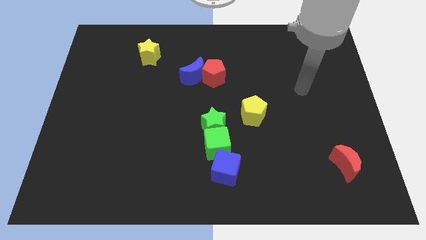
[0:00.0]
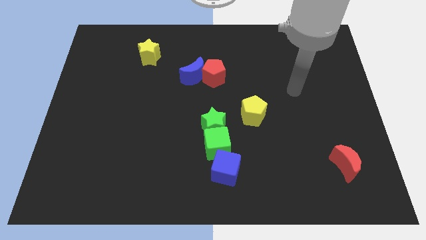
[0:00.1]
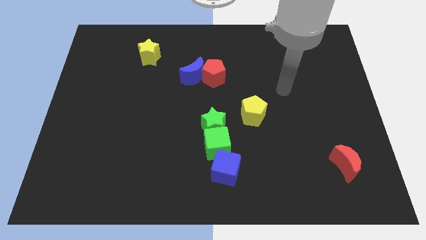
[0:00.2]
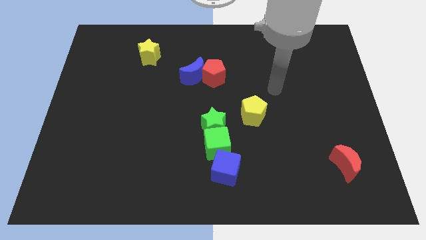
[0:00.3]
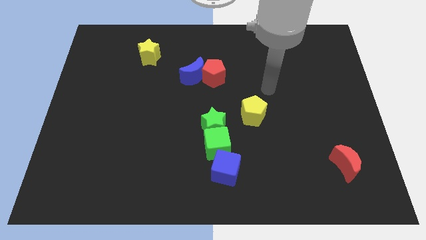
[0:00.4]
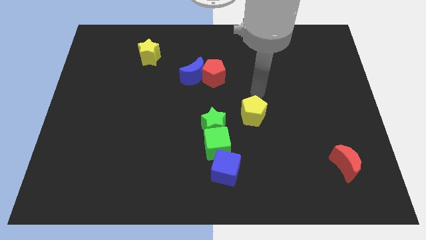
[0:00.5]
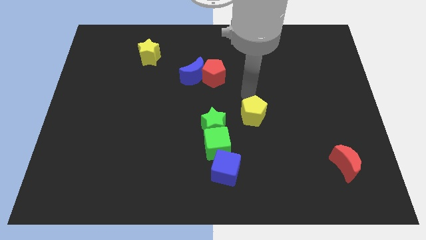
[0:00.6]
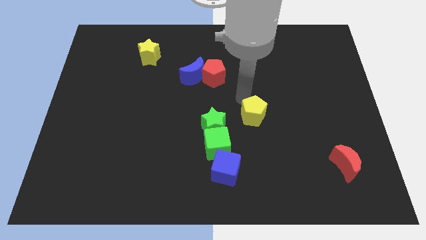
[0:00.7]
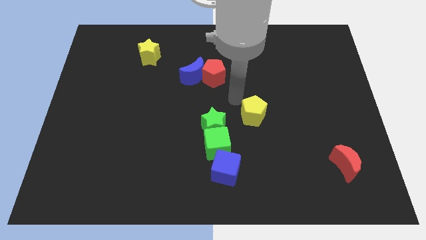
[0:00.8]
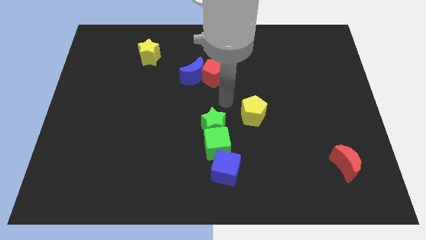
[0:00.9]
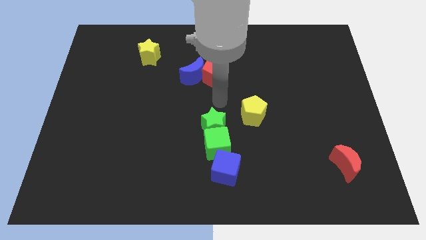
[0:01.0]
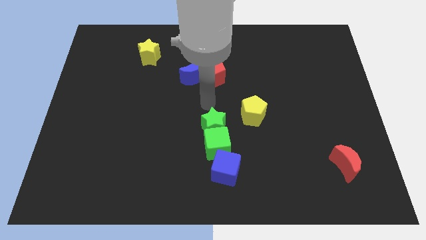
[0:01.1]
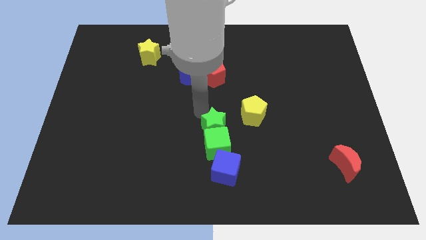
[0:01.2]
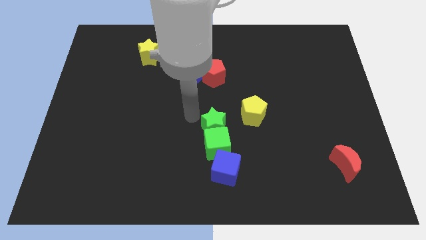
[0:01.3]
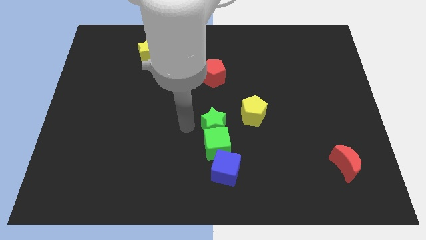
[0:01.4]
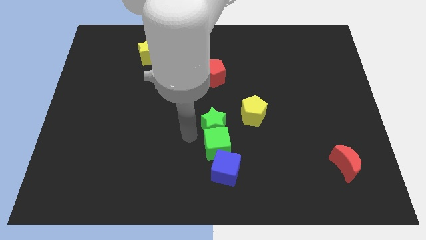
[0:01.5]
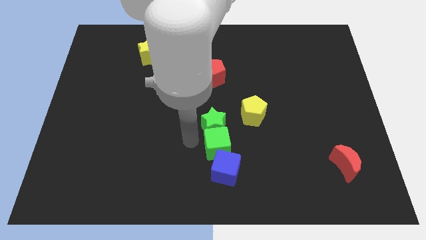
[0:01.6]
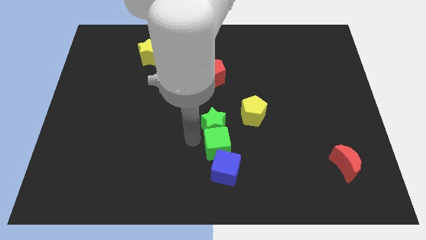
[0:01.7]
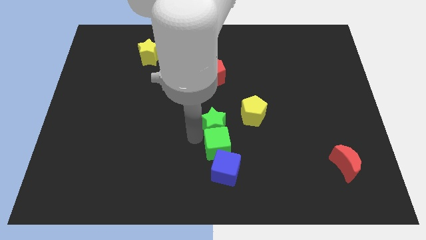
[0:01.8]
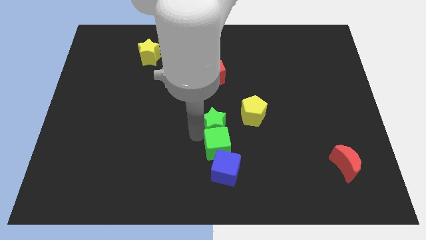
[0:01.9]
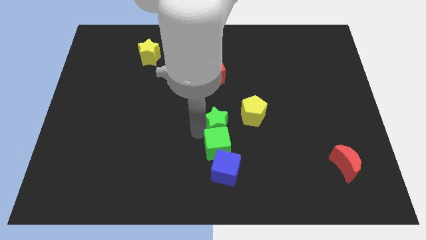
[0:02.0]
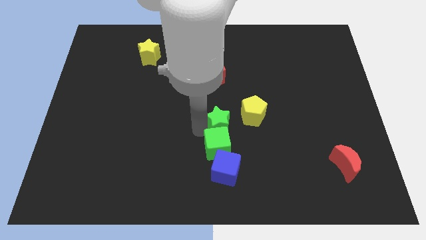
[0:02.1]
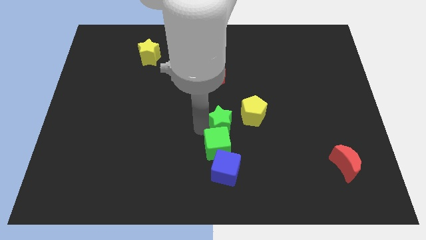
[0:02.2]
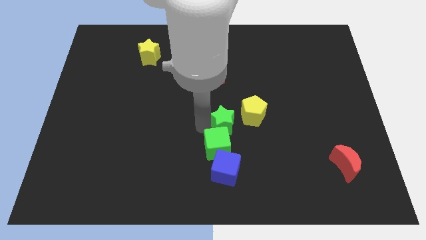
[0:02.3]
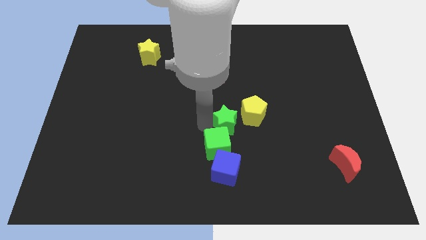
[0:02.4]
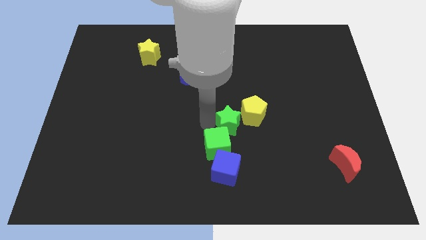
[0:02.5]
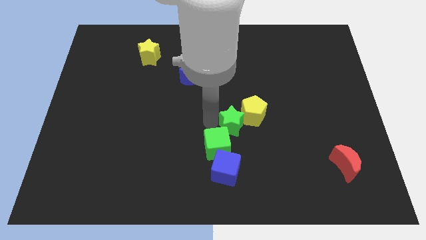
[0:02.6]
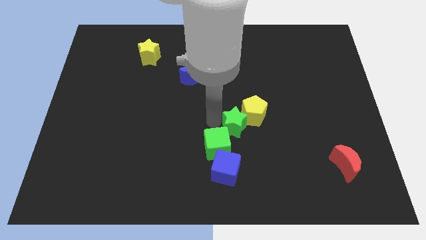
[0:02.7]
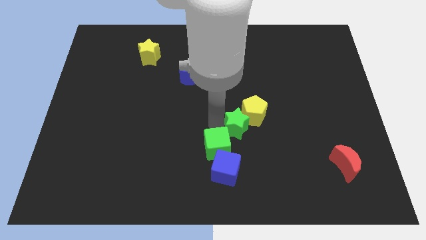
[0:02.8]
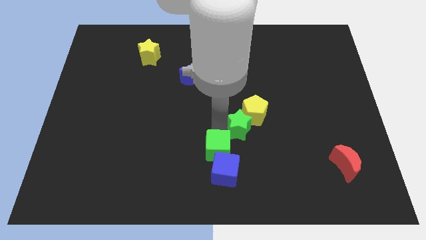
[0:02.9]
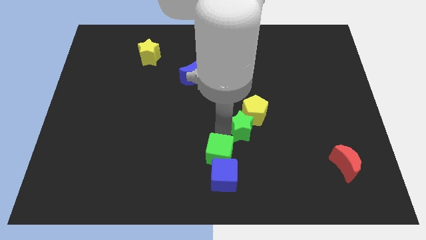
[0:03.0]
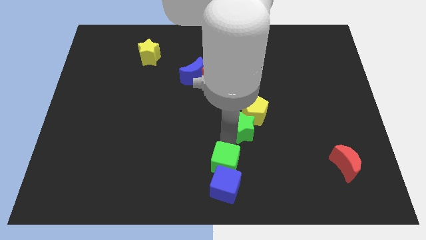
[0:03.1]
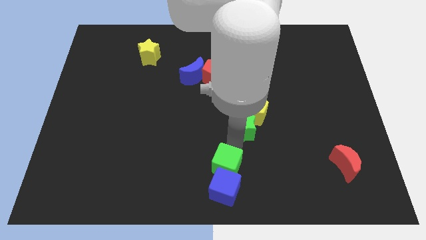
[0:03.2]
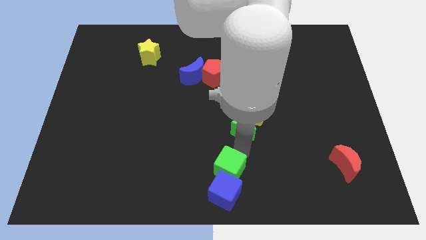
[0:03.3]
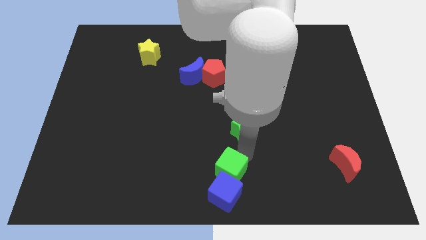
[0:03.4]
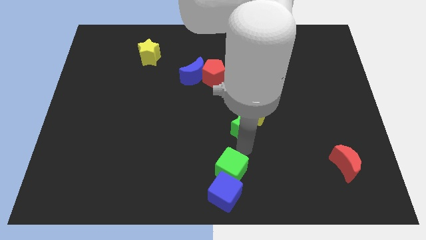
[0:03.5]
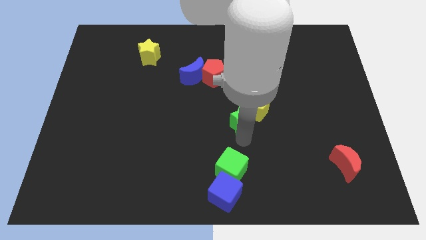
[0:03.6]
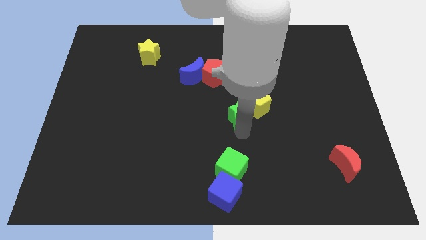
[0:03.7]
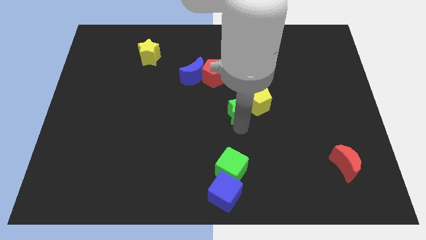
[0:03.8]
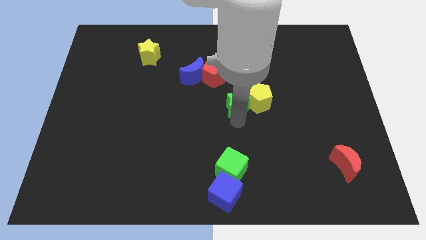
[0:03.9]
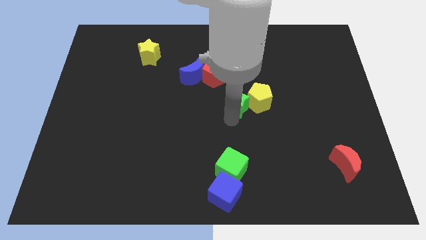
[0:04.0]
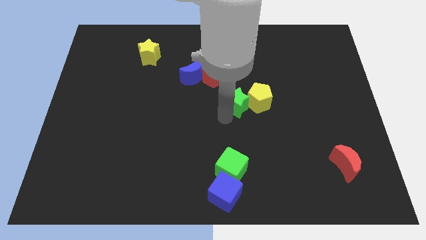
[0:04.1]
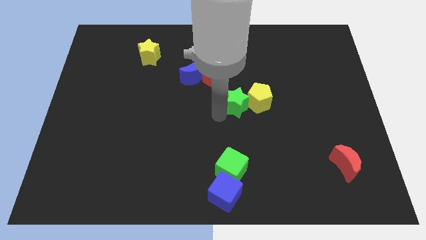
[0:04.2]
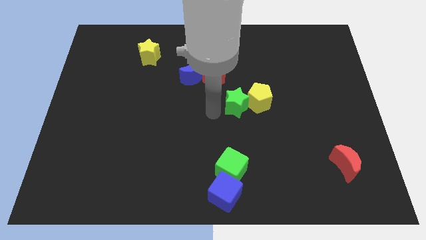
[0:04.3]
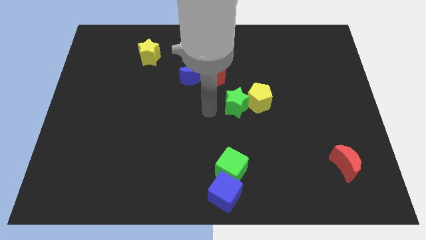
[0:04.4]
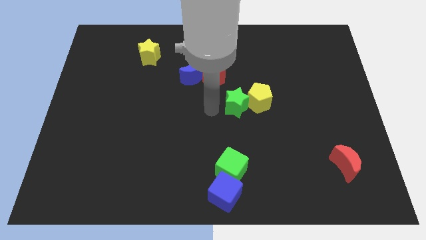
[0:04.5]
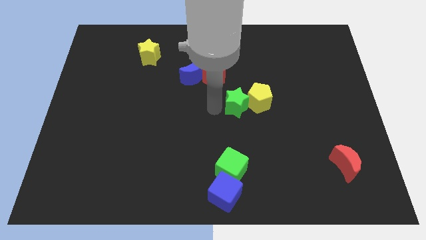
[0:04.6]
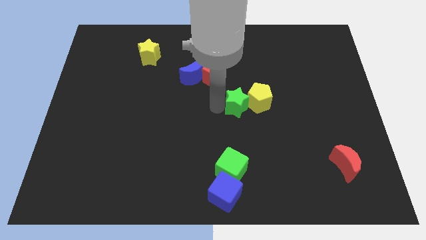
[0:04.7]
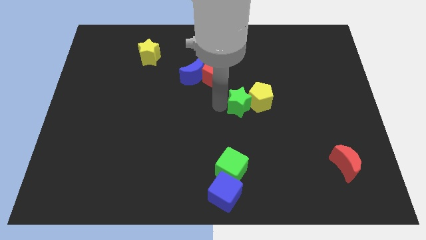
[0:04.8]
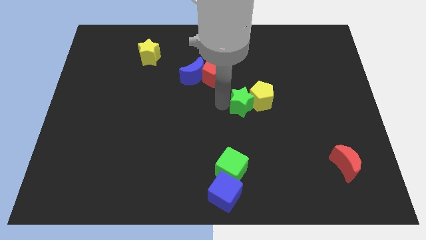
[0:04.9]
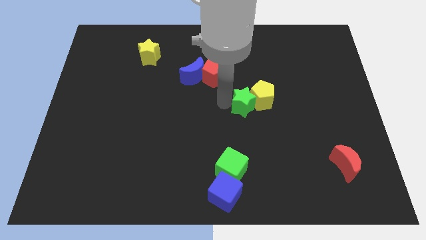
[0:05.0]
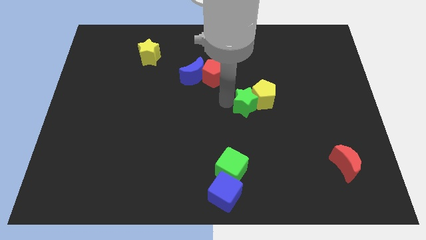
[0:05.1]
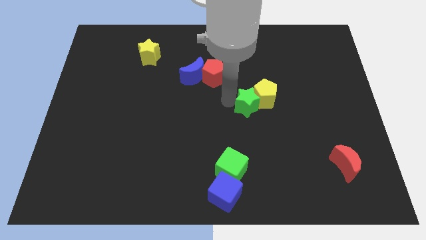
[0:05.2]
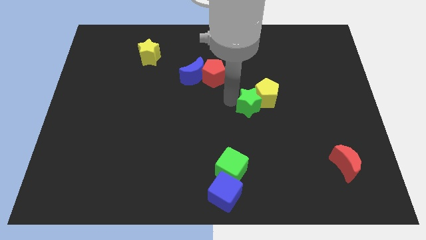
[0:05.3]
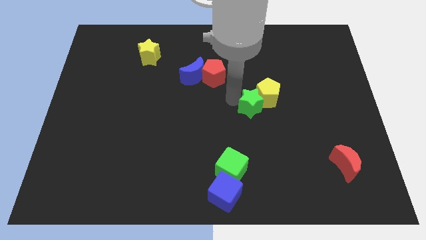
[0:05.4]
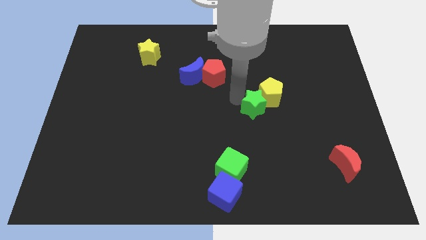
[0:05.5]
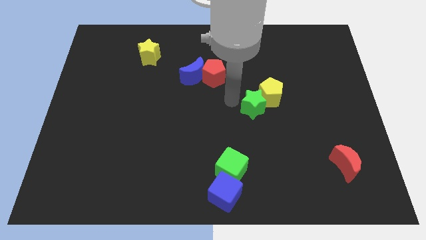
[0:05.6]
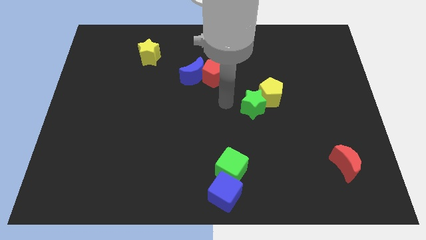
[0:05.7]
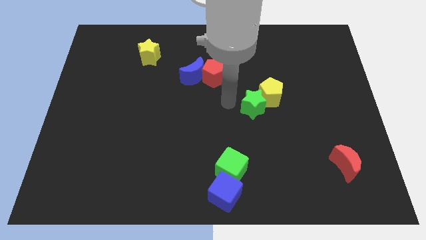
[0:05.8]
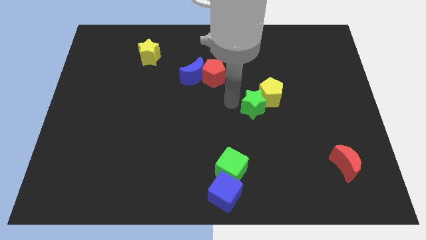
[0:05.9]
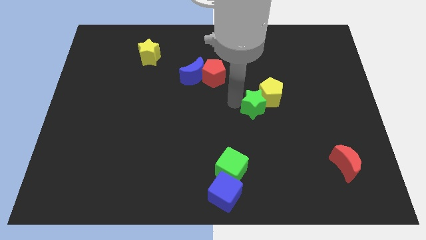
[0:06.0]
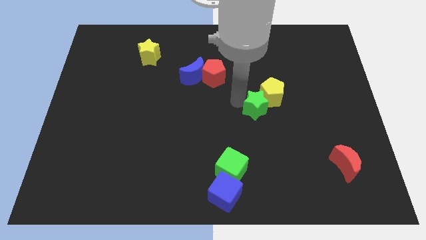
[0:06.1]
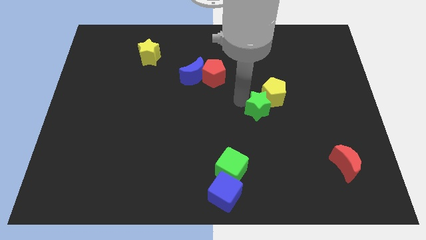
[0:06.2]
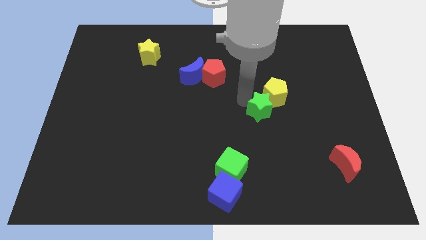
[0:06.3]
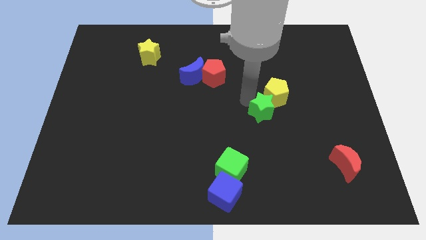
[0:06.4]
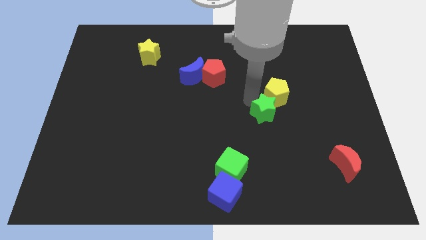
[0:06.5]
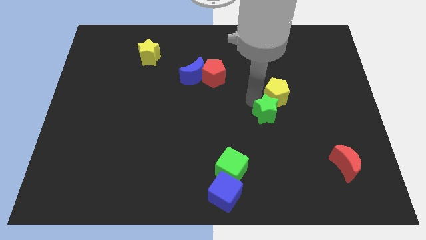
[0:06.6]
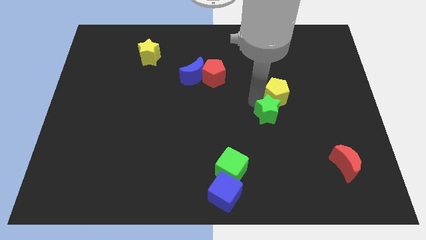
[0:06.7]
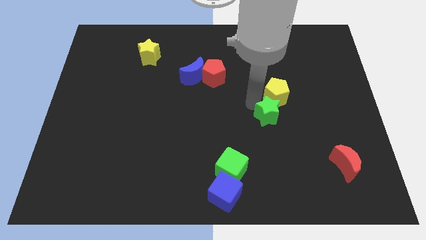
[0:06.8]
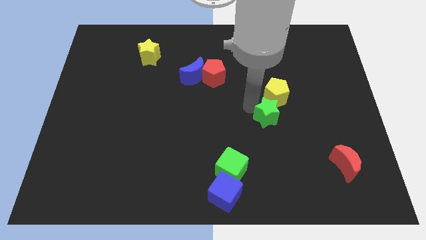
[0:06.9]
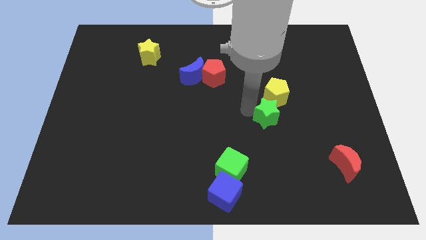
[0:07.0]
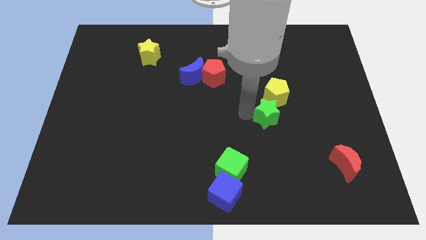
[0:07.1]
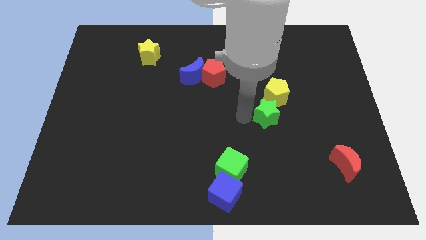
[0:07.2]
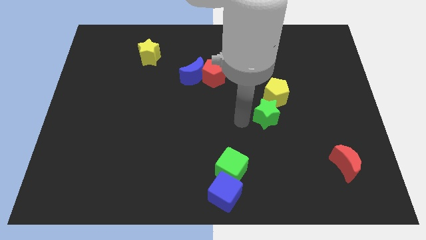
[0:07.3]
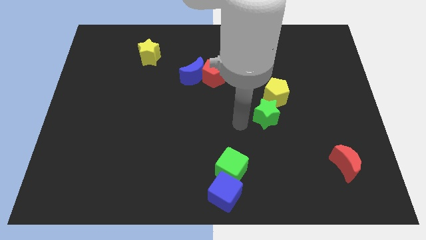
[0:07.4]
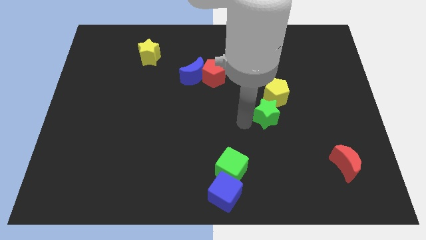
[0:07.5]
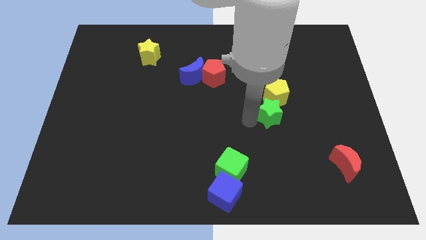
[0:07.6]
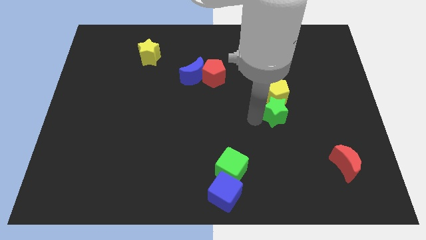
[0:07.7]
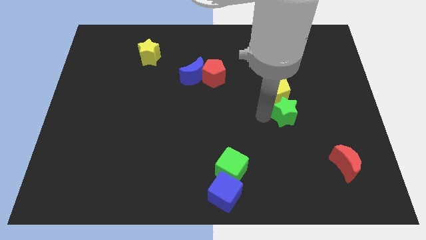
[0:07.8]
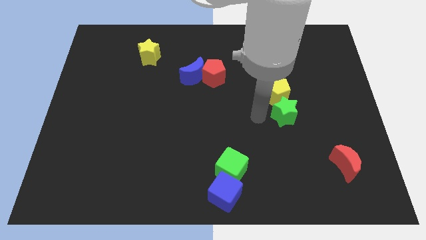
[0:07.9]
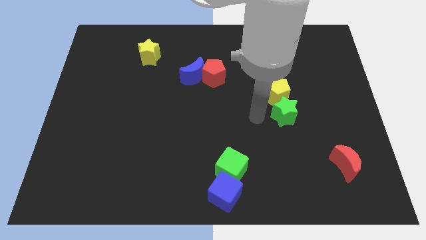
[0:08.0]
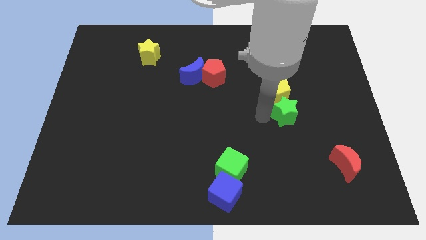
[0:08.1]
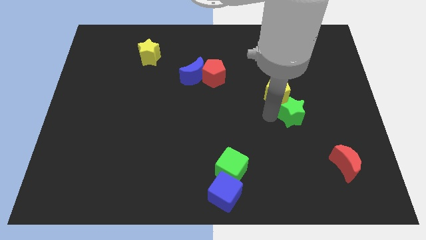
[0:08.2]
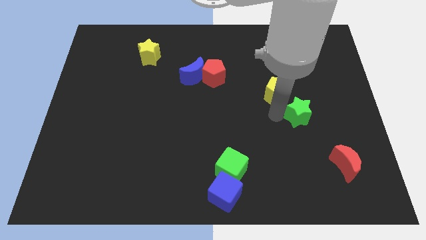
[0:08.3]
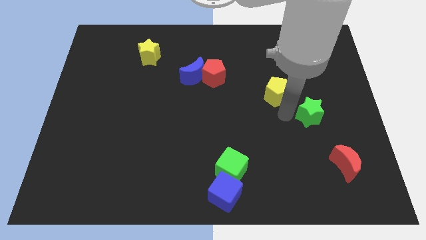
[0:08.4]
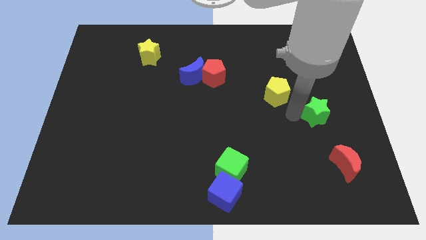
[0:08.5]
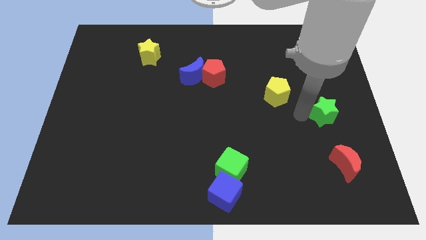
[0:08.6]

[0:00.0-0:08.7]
push the green star to the right side
